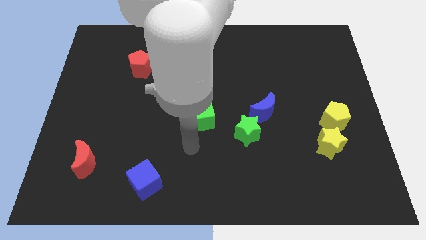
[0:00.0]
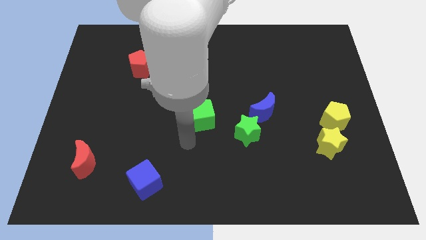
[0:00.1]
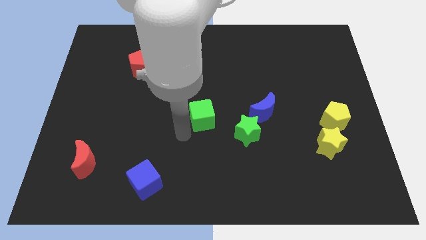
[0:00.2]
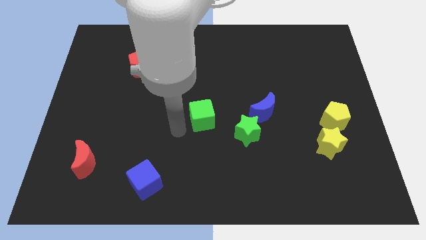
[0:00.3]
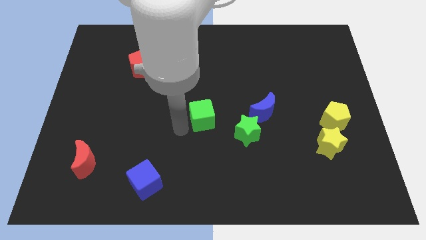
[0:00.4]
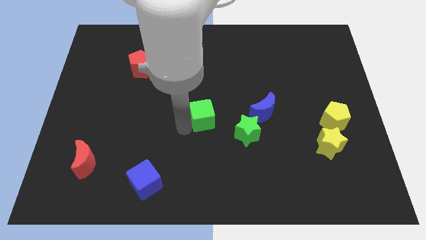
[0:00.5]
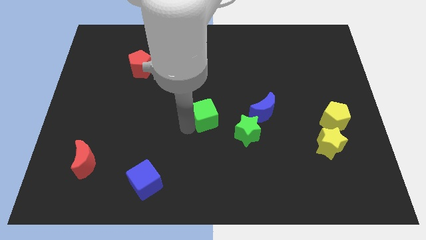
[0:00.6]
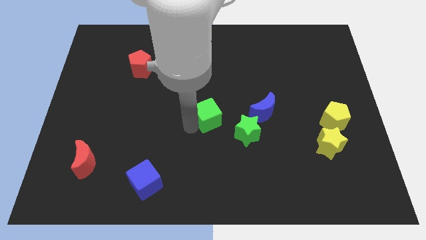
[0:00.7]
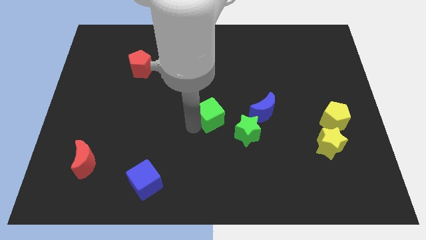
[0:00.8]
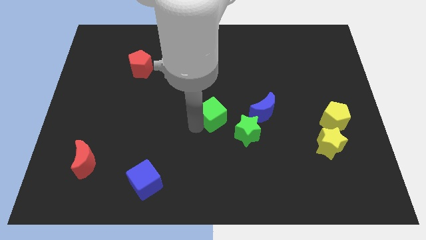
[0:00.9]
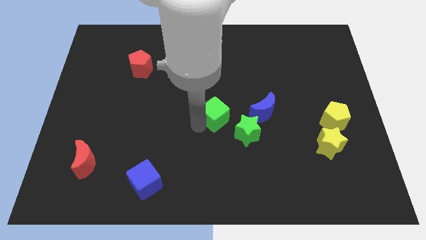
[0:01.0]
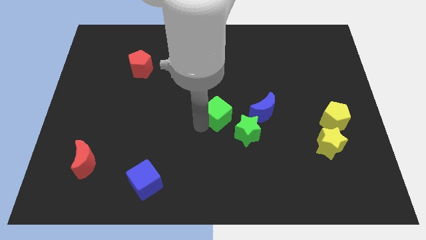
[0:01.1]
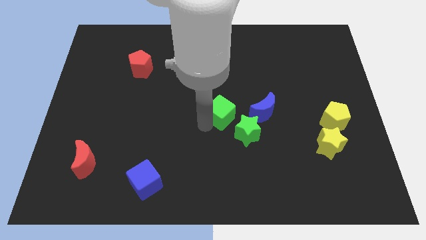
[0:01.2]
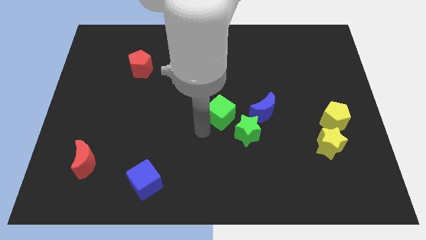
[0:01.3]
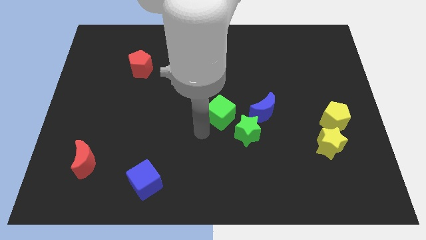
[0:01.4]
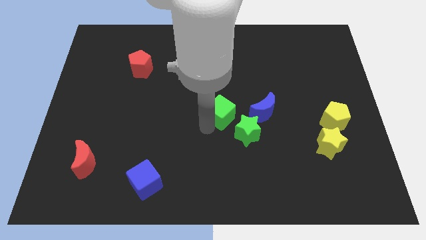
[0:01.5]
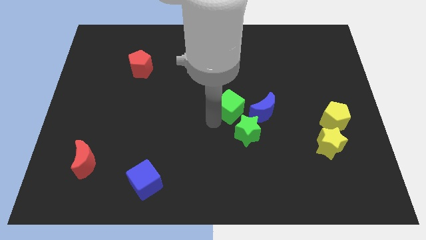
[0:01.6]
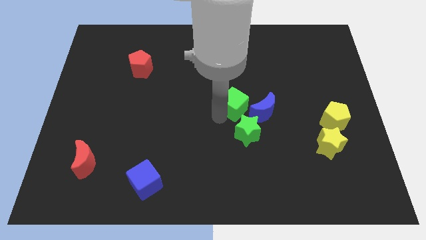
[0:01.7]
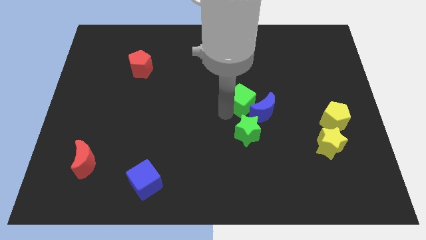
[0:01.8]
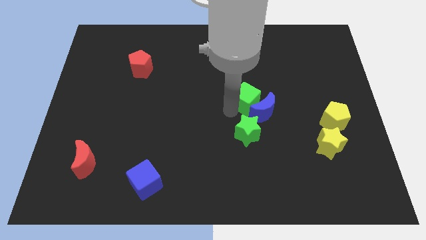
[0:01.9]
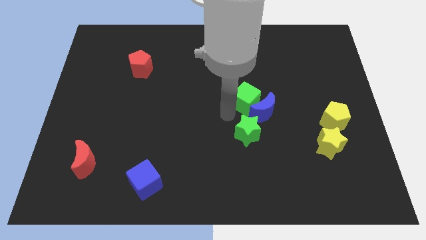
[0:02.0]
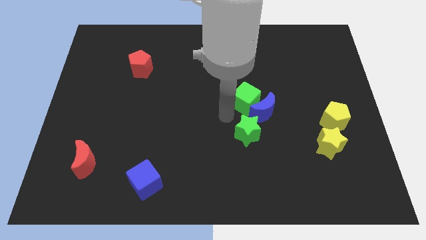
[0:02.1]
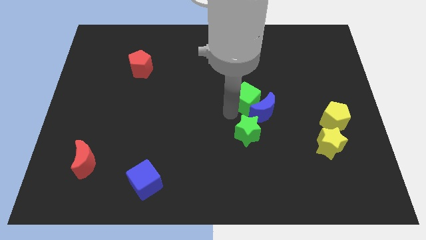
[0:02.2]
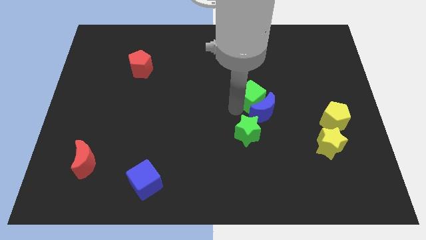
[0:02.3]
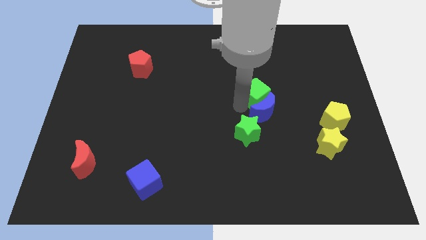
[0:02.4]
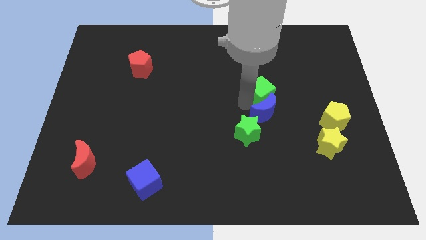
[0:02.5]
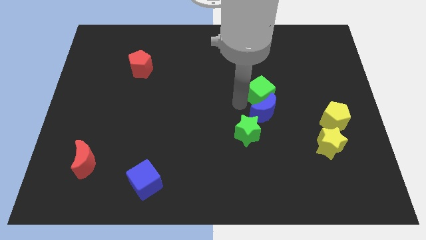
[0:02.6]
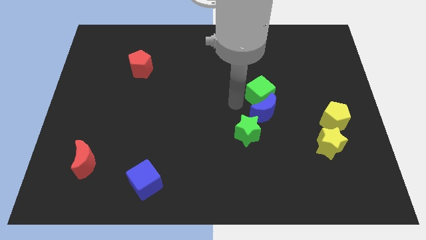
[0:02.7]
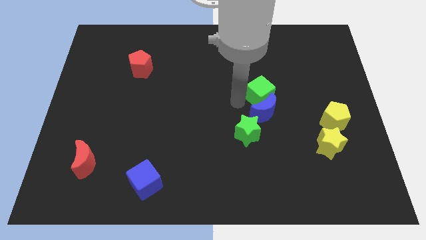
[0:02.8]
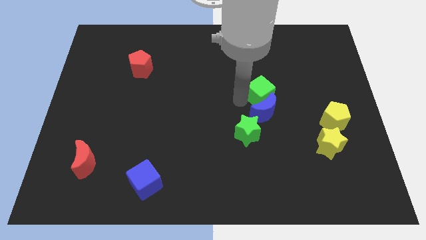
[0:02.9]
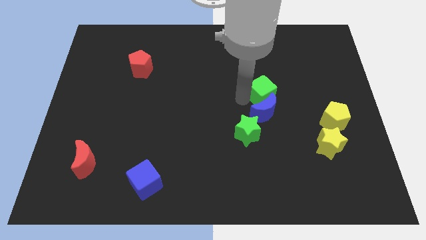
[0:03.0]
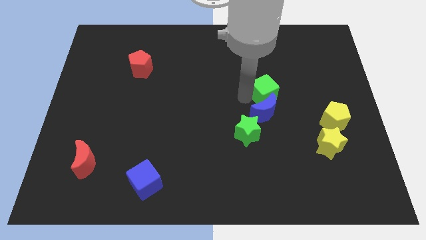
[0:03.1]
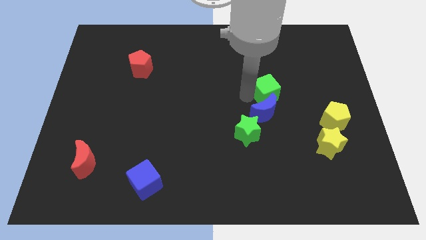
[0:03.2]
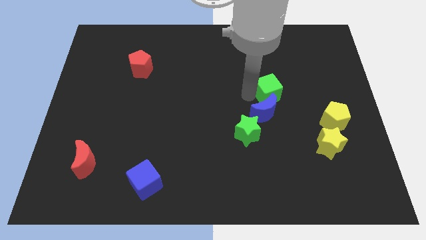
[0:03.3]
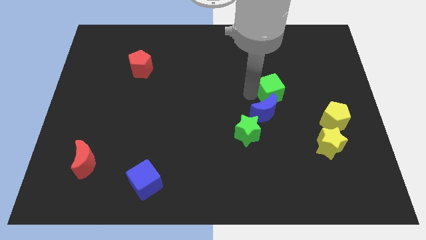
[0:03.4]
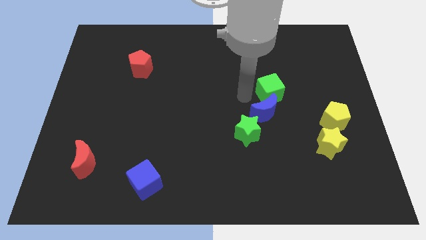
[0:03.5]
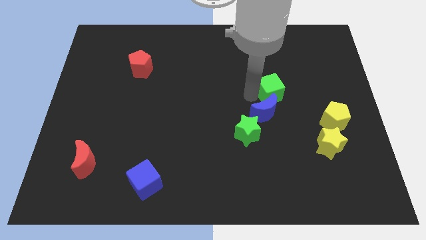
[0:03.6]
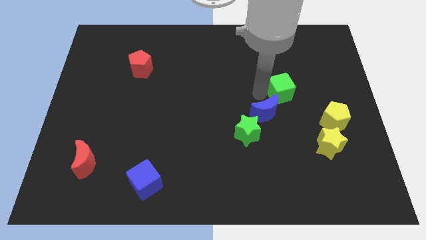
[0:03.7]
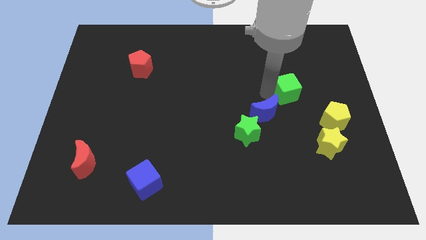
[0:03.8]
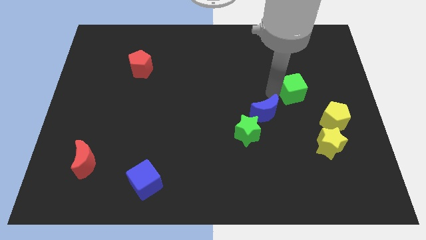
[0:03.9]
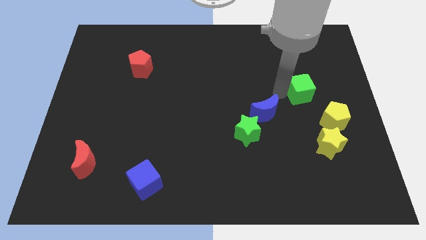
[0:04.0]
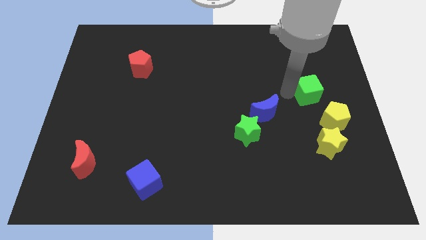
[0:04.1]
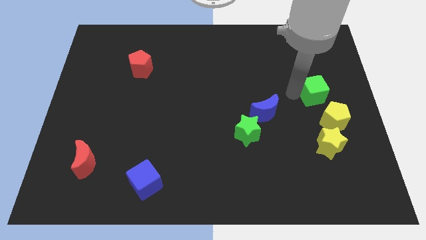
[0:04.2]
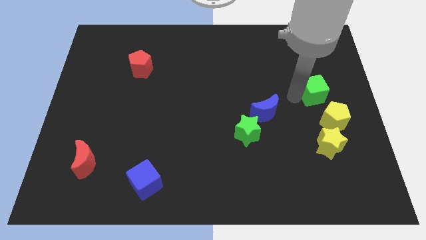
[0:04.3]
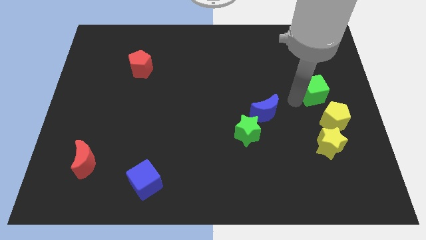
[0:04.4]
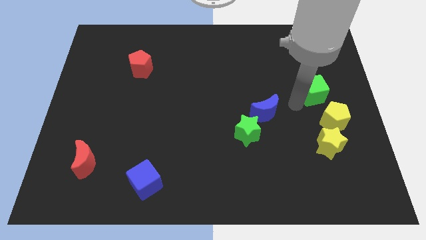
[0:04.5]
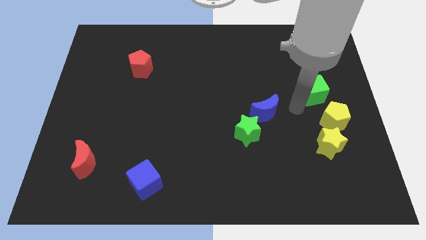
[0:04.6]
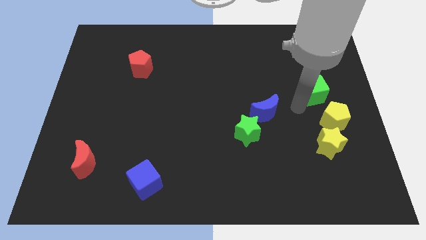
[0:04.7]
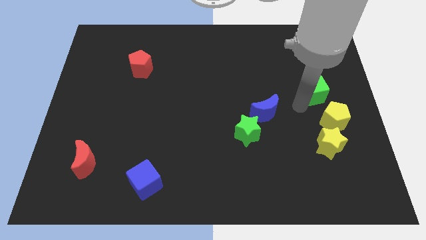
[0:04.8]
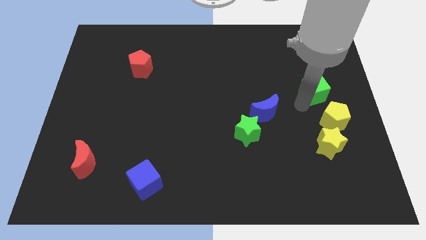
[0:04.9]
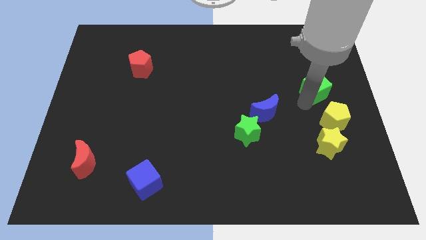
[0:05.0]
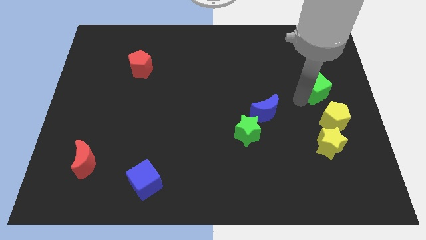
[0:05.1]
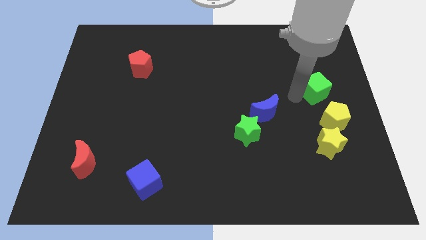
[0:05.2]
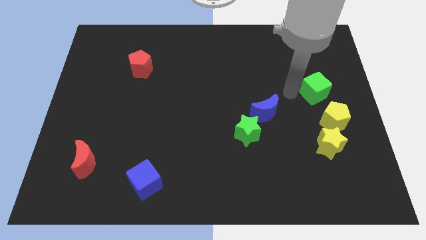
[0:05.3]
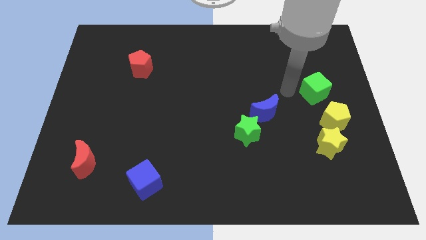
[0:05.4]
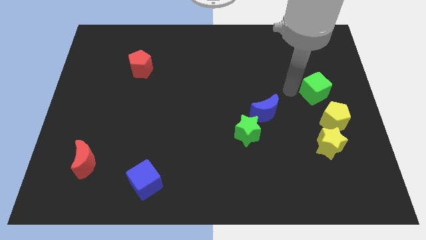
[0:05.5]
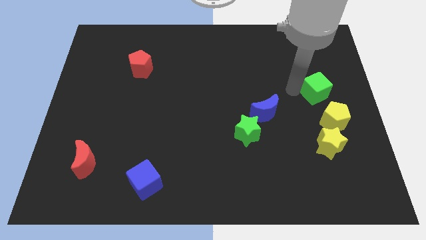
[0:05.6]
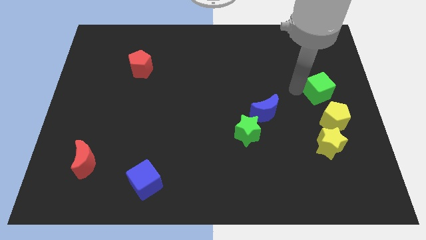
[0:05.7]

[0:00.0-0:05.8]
put the green cube to the right side of the board

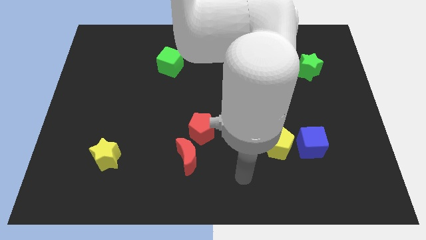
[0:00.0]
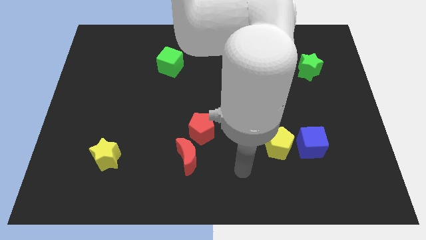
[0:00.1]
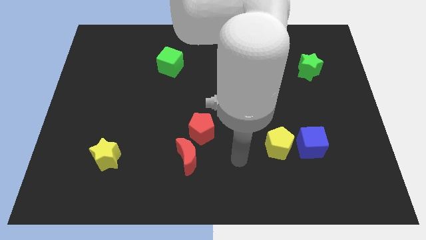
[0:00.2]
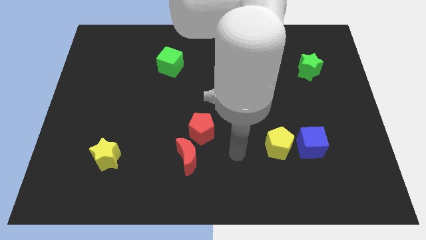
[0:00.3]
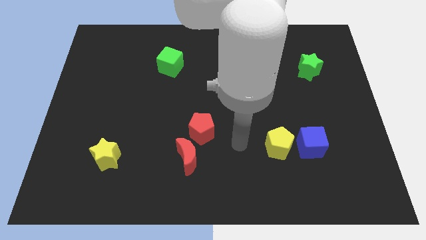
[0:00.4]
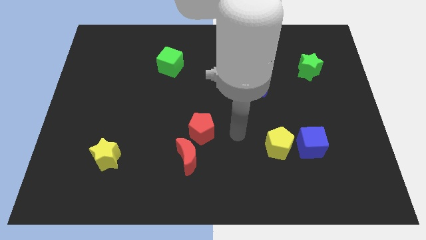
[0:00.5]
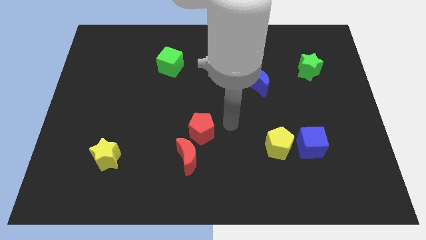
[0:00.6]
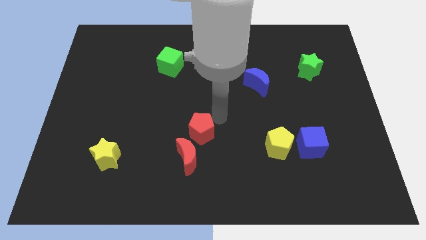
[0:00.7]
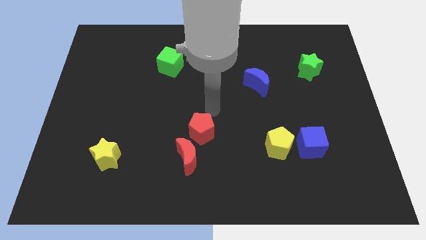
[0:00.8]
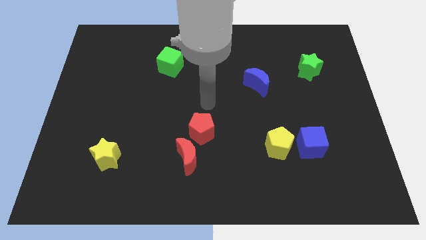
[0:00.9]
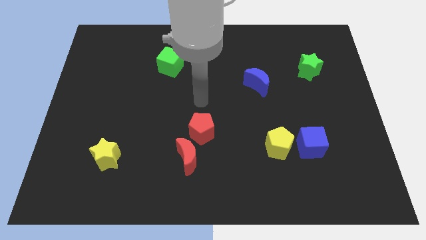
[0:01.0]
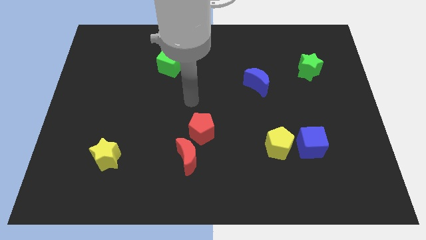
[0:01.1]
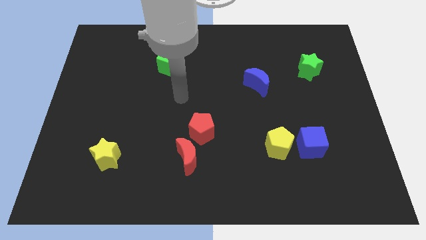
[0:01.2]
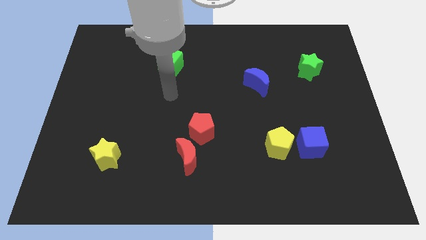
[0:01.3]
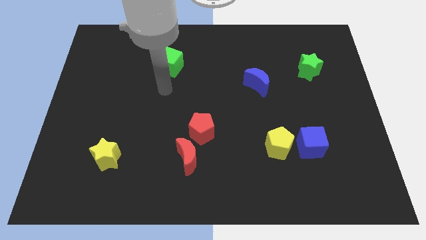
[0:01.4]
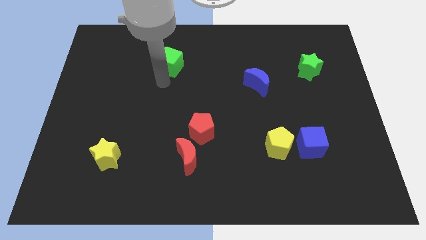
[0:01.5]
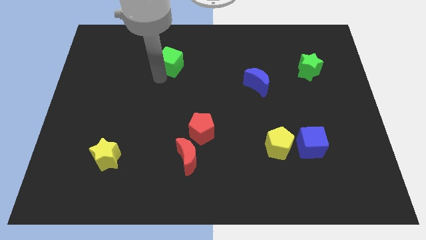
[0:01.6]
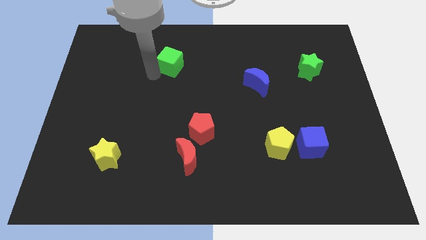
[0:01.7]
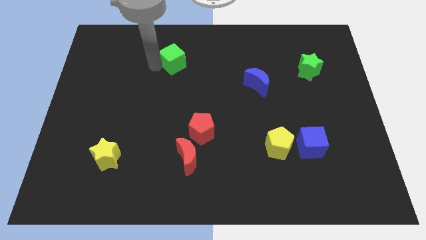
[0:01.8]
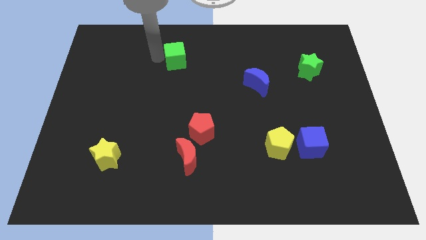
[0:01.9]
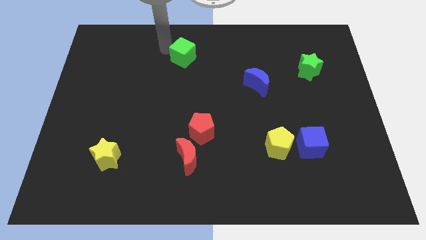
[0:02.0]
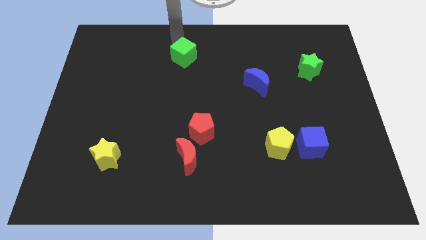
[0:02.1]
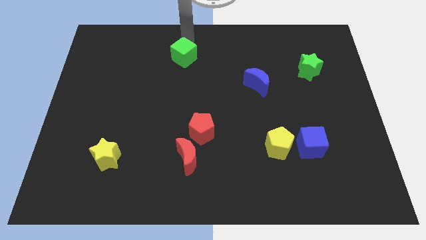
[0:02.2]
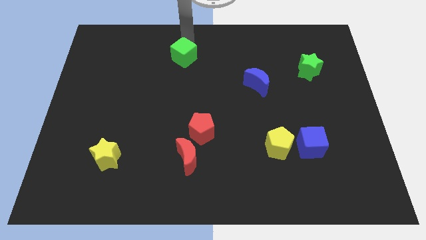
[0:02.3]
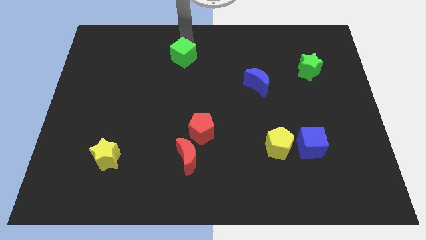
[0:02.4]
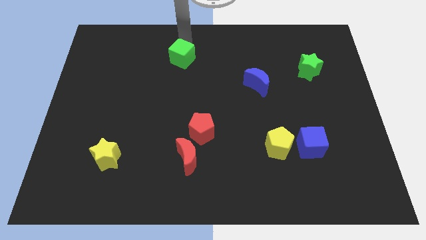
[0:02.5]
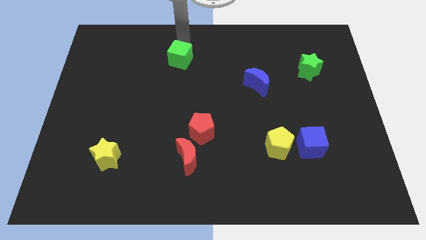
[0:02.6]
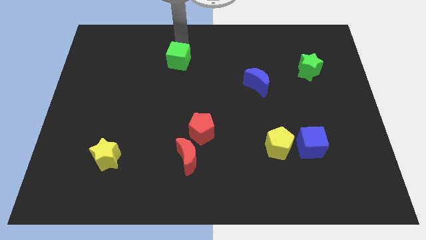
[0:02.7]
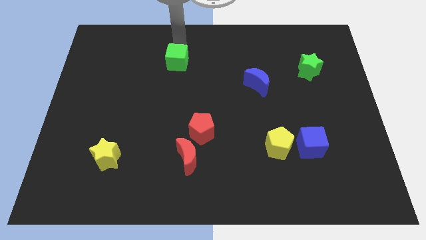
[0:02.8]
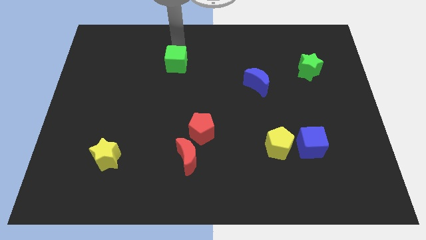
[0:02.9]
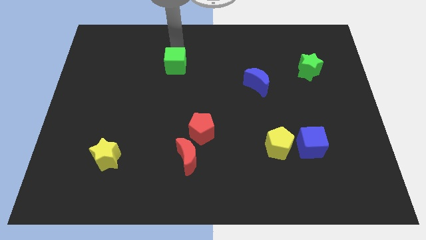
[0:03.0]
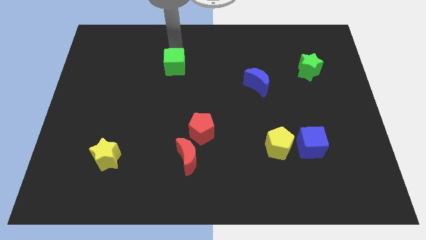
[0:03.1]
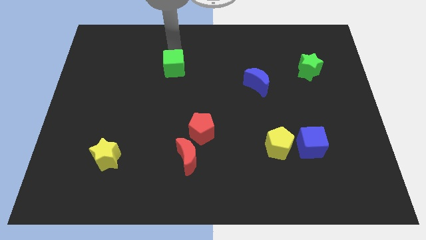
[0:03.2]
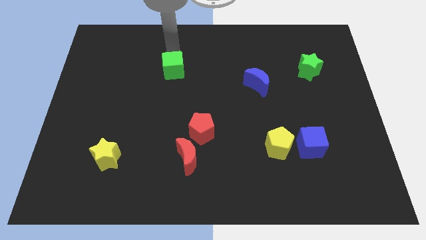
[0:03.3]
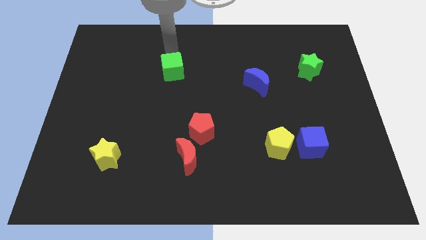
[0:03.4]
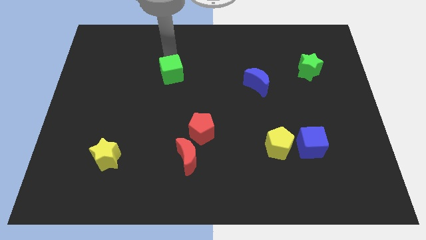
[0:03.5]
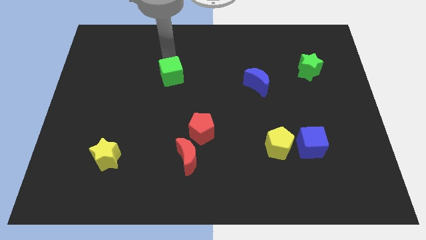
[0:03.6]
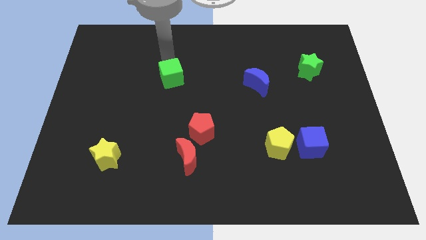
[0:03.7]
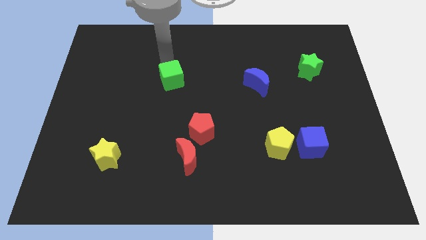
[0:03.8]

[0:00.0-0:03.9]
put the green cube to the center of the board
